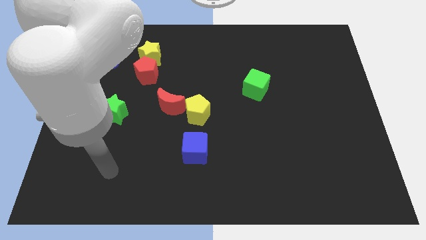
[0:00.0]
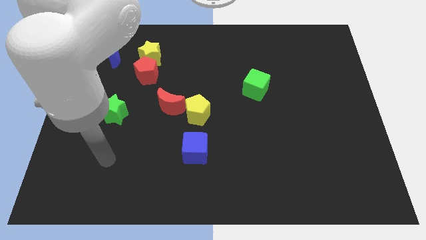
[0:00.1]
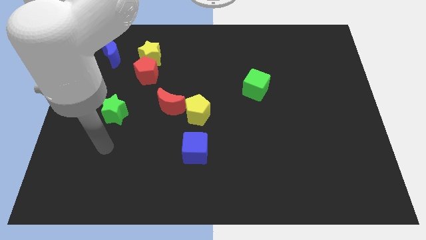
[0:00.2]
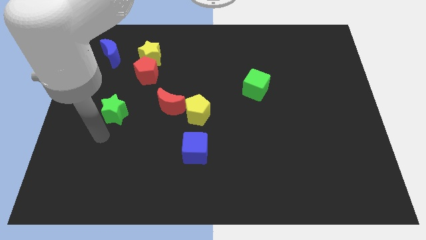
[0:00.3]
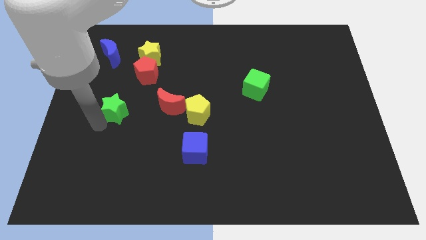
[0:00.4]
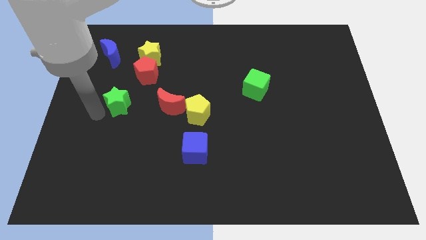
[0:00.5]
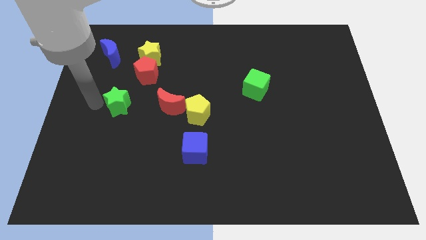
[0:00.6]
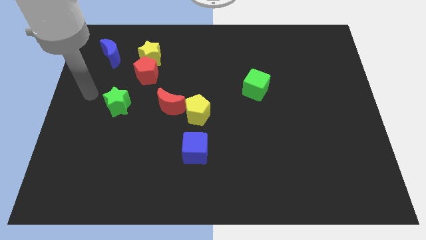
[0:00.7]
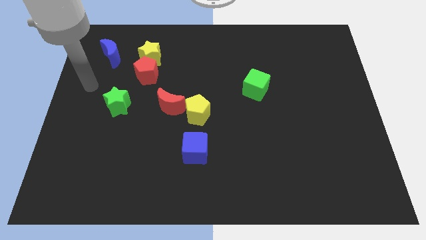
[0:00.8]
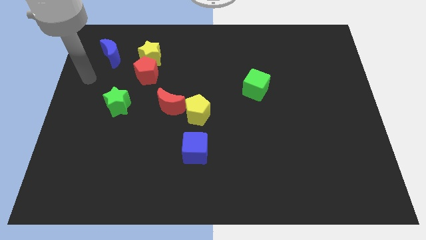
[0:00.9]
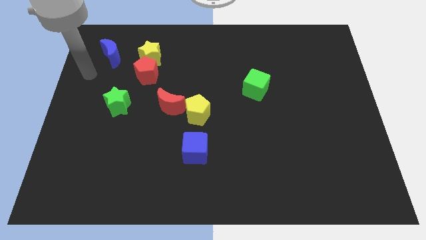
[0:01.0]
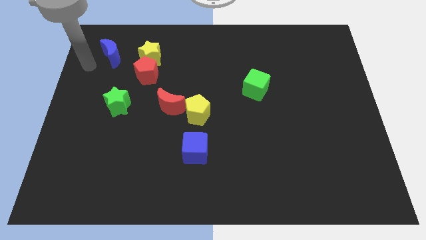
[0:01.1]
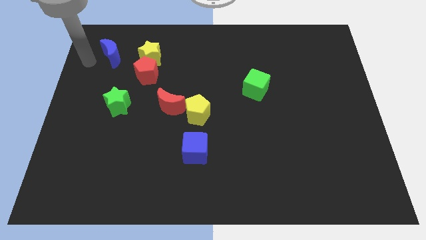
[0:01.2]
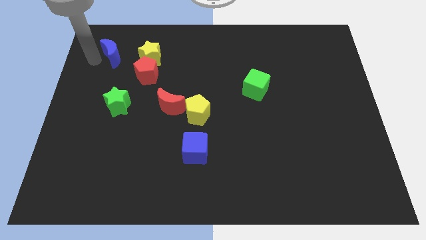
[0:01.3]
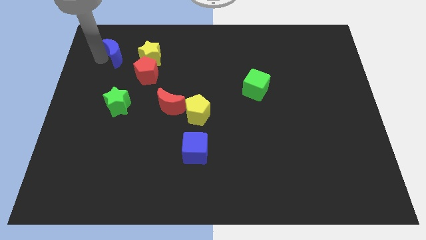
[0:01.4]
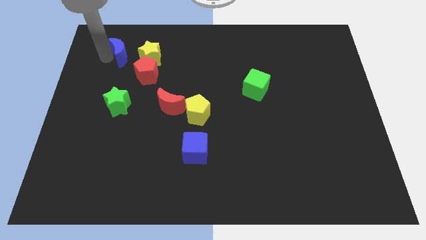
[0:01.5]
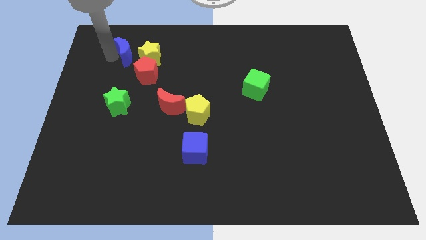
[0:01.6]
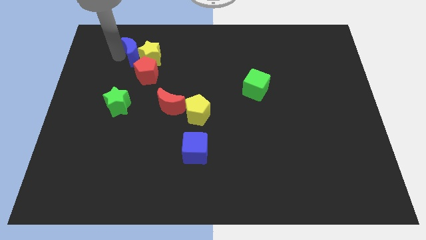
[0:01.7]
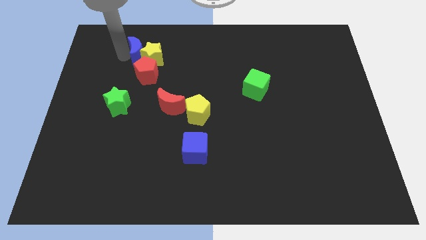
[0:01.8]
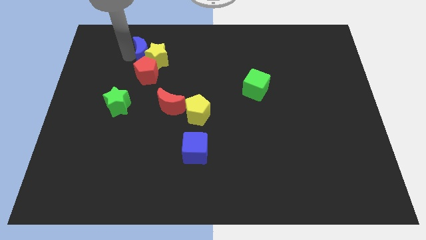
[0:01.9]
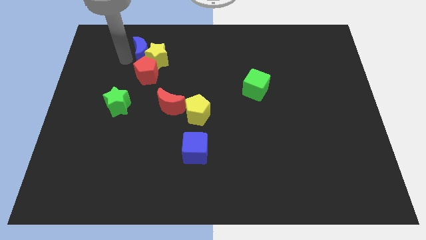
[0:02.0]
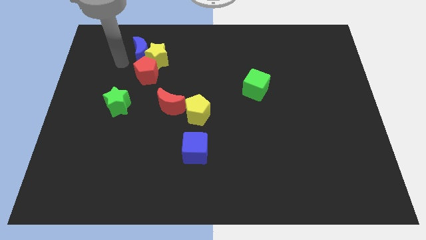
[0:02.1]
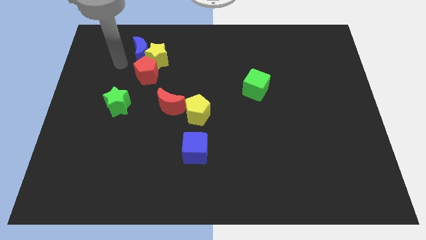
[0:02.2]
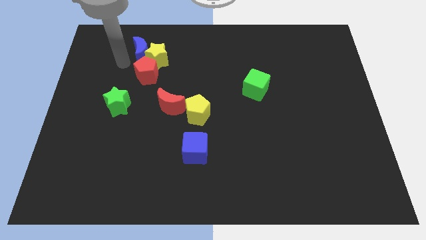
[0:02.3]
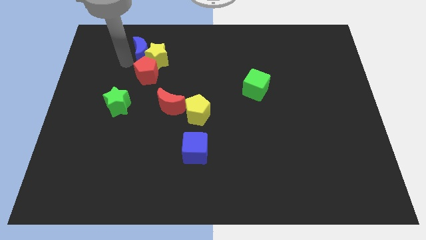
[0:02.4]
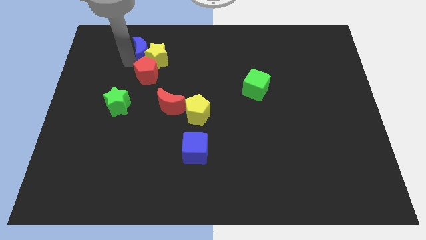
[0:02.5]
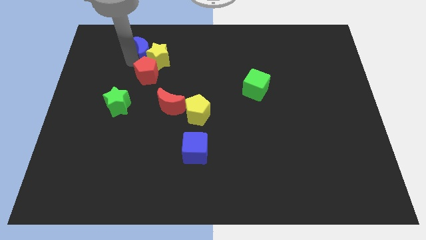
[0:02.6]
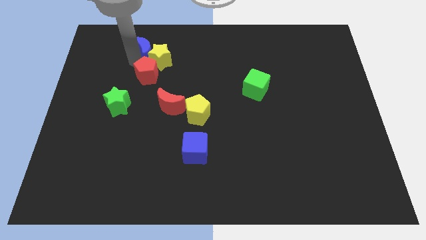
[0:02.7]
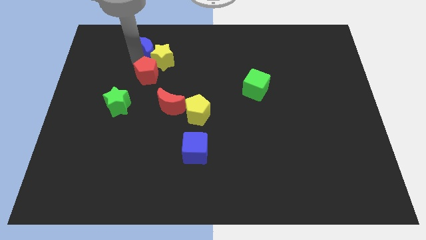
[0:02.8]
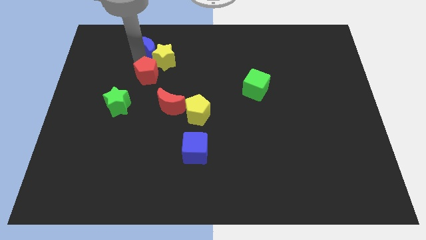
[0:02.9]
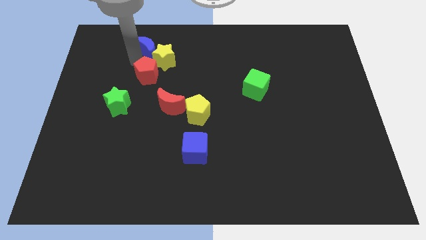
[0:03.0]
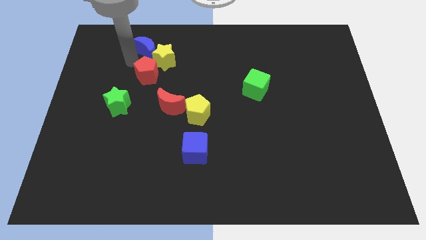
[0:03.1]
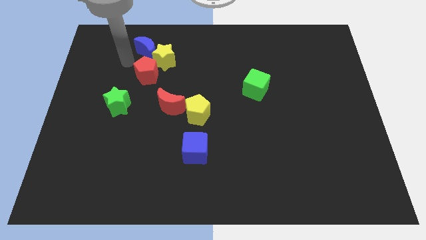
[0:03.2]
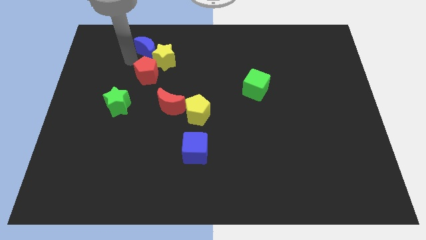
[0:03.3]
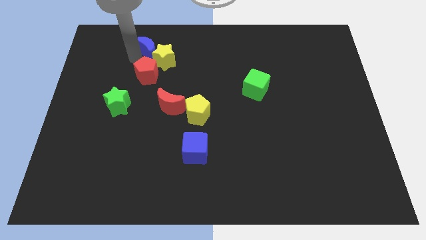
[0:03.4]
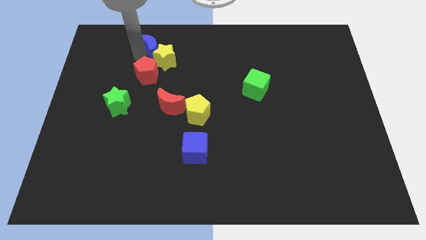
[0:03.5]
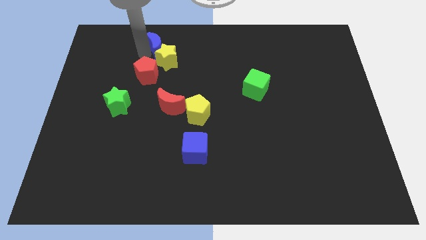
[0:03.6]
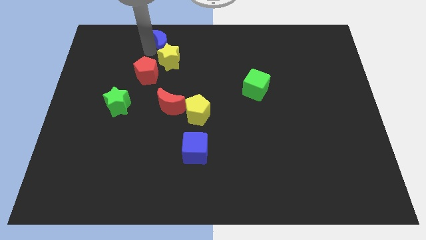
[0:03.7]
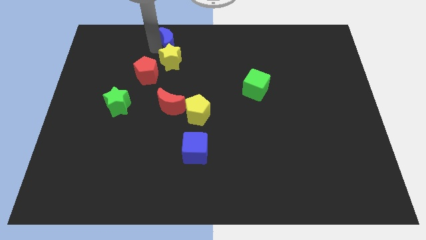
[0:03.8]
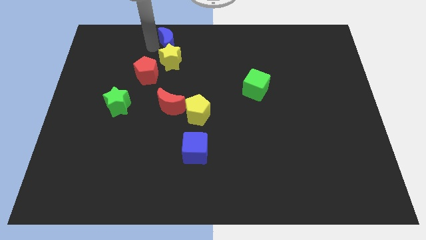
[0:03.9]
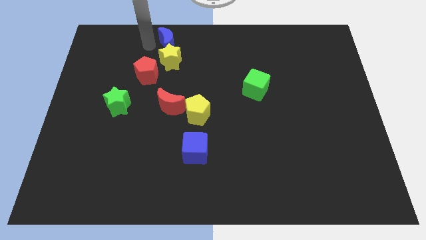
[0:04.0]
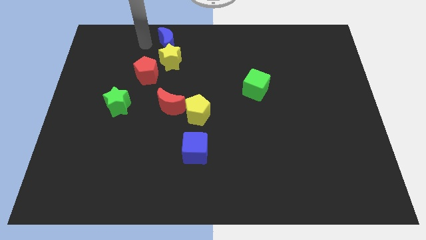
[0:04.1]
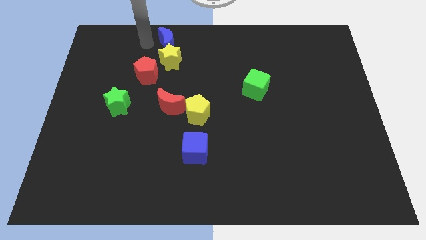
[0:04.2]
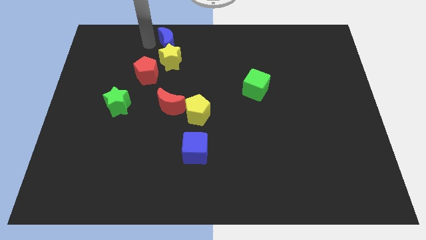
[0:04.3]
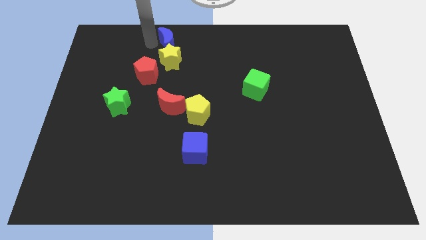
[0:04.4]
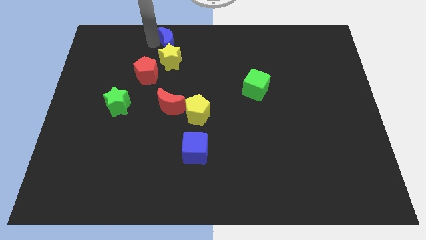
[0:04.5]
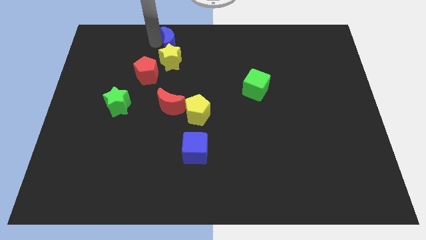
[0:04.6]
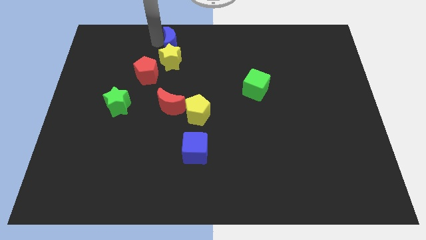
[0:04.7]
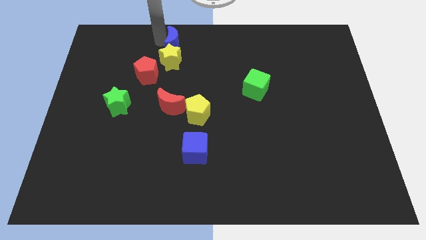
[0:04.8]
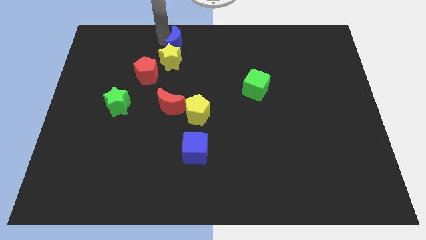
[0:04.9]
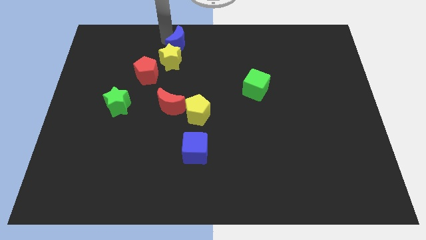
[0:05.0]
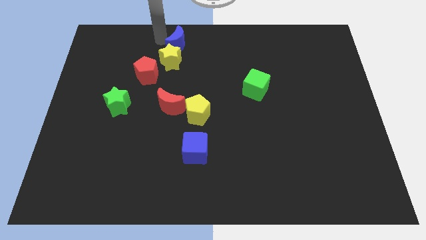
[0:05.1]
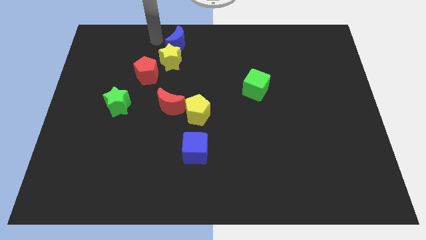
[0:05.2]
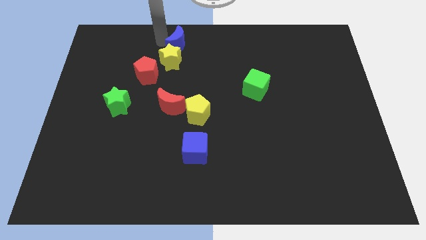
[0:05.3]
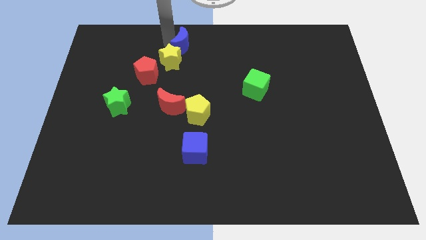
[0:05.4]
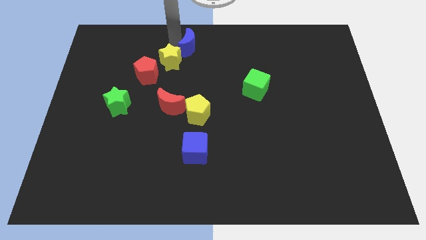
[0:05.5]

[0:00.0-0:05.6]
slide the blue moon right

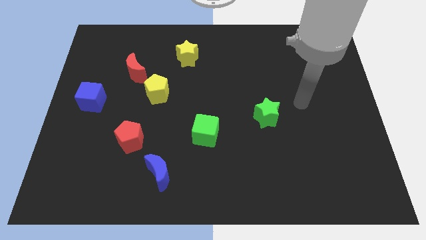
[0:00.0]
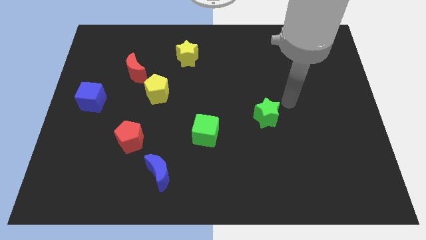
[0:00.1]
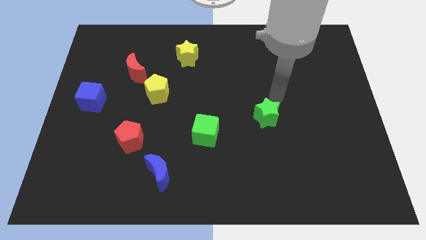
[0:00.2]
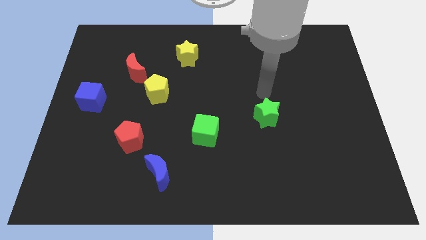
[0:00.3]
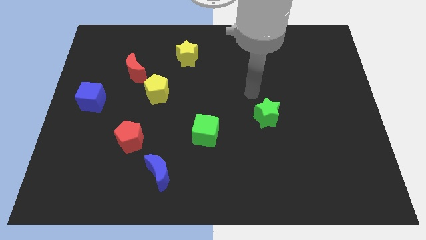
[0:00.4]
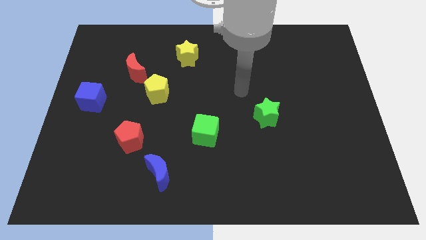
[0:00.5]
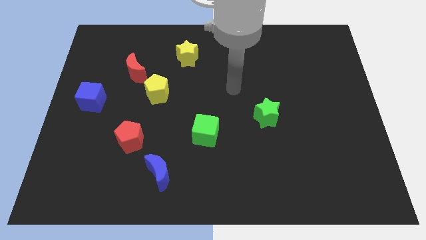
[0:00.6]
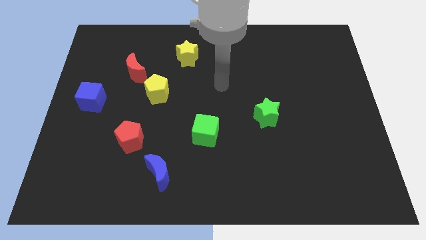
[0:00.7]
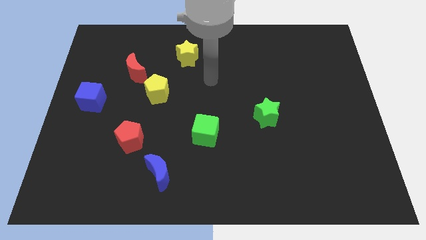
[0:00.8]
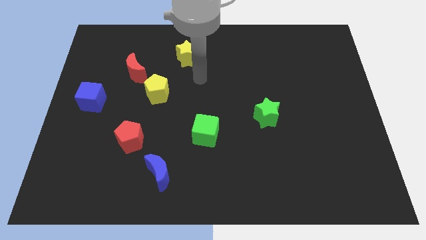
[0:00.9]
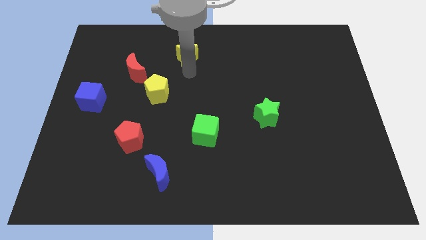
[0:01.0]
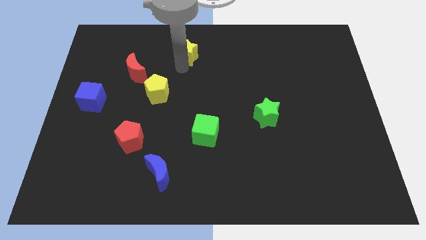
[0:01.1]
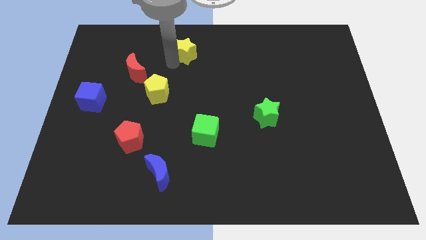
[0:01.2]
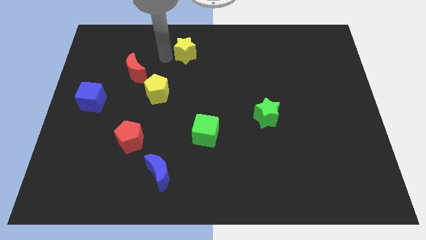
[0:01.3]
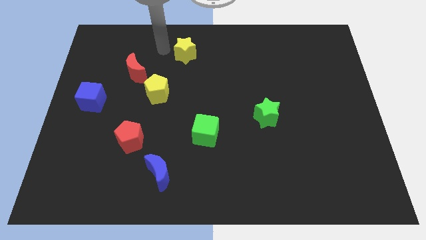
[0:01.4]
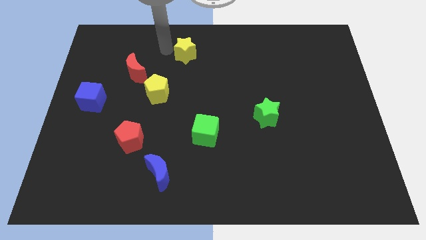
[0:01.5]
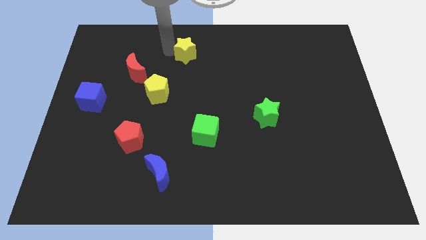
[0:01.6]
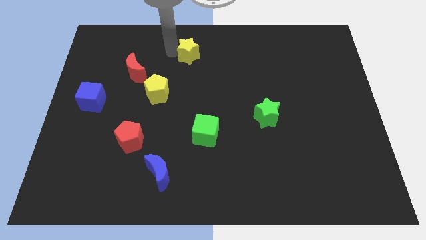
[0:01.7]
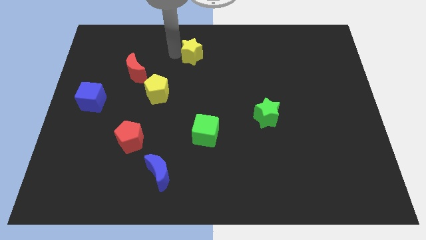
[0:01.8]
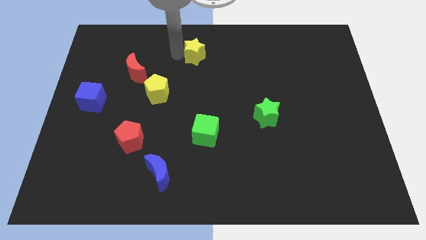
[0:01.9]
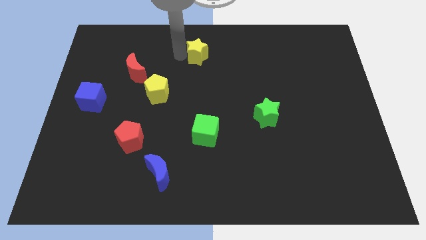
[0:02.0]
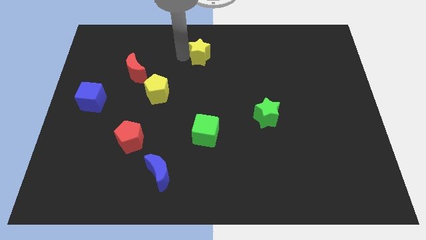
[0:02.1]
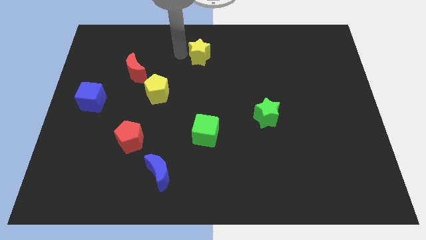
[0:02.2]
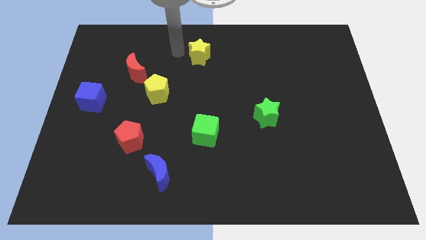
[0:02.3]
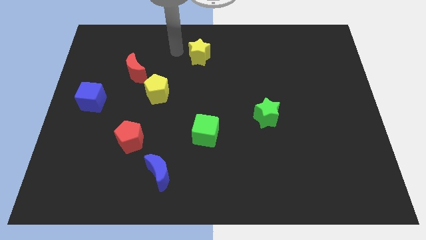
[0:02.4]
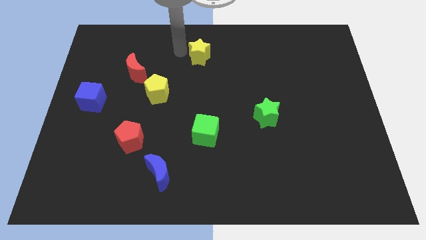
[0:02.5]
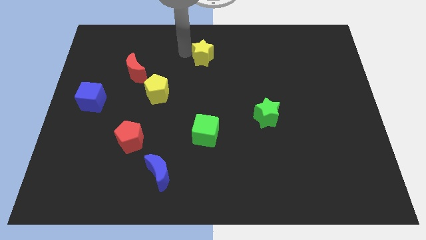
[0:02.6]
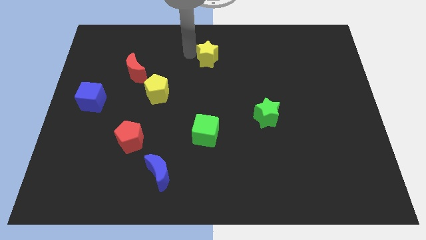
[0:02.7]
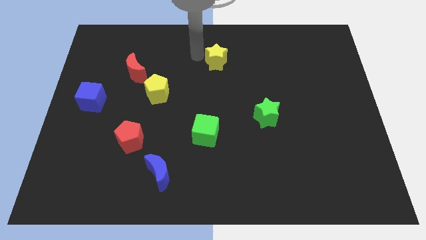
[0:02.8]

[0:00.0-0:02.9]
push the yellow star a little to the right
